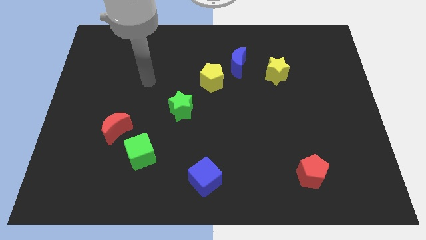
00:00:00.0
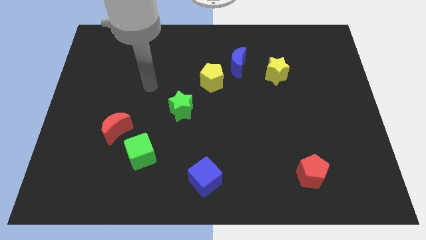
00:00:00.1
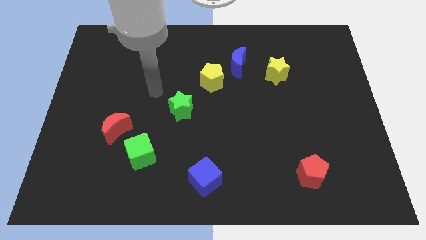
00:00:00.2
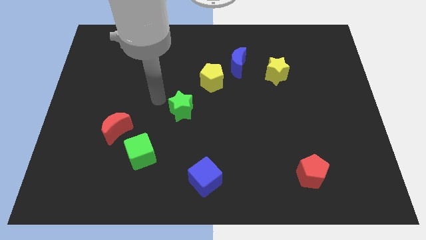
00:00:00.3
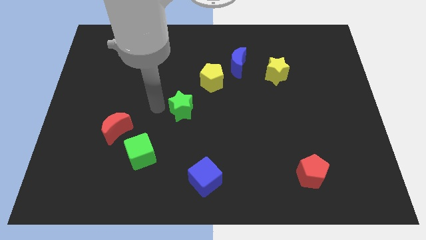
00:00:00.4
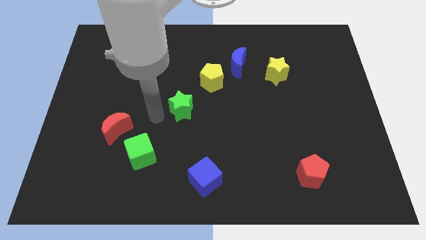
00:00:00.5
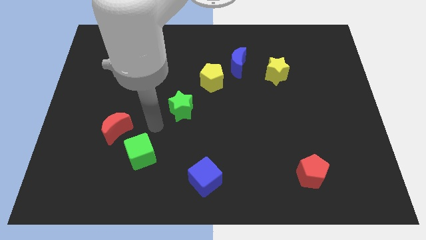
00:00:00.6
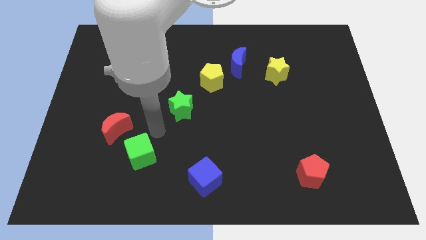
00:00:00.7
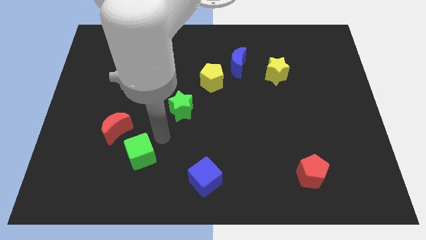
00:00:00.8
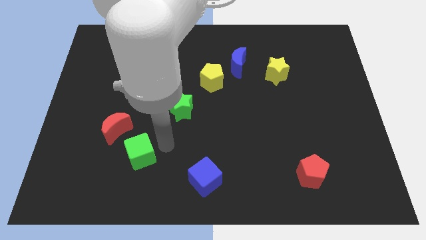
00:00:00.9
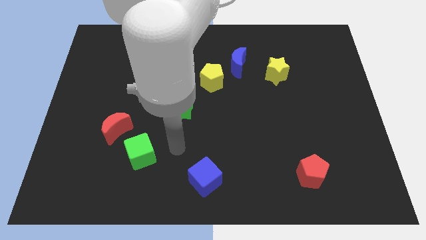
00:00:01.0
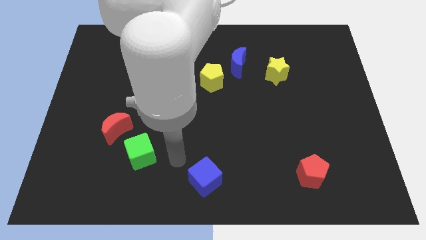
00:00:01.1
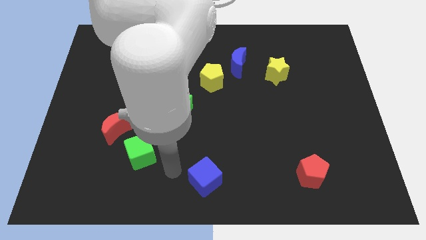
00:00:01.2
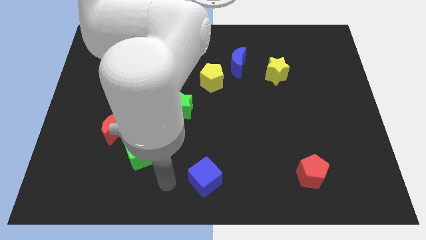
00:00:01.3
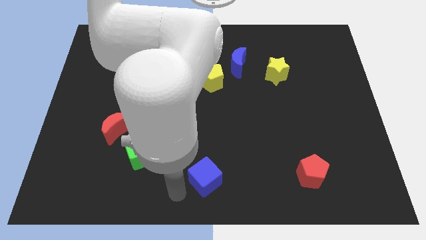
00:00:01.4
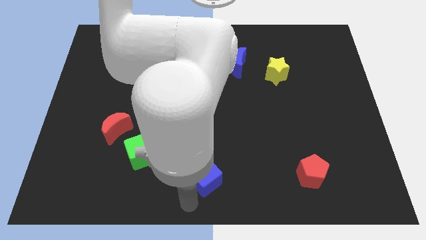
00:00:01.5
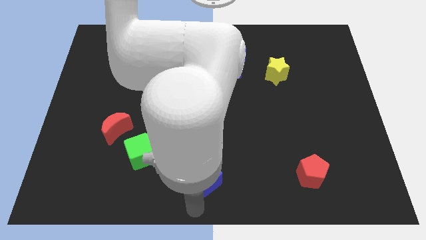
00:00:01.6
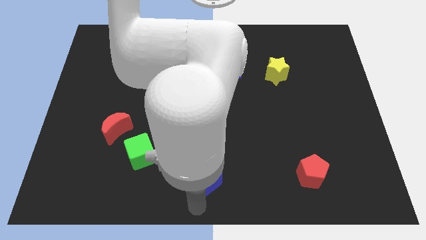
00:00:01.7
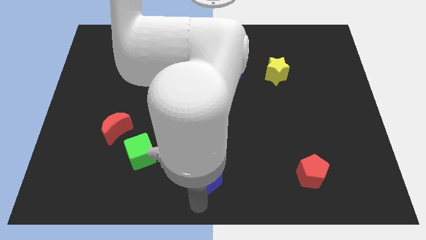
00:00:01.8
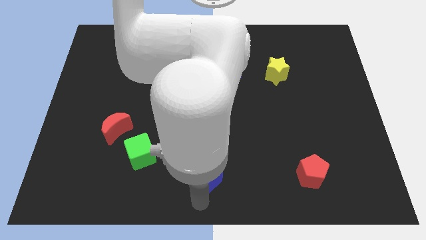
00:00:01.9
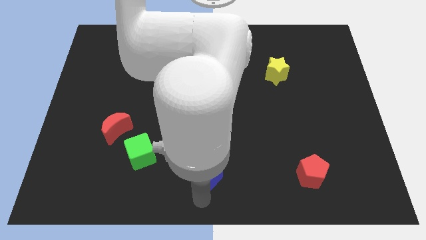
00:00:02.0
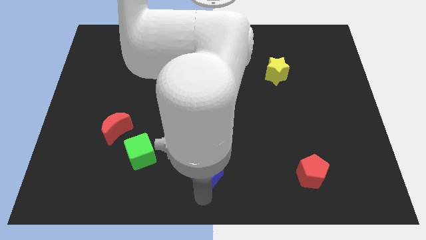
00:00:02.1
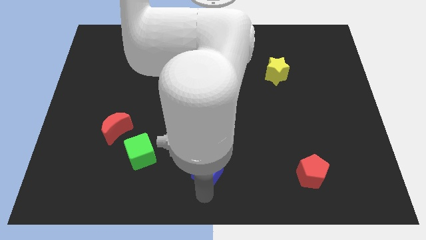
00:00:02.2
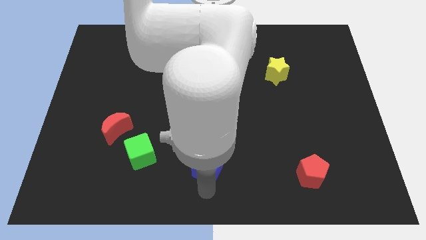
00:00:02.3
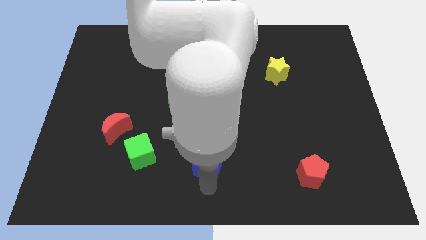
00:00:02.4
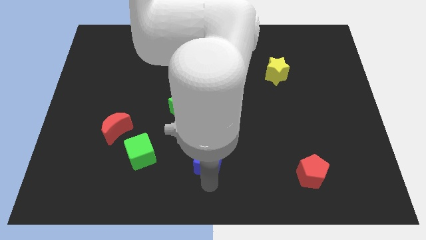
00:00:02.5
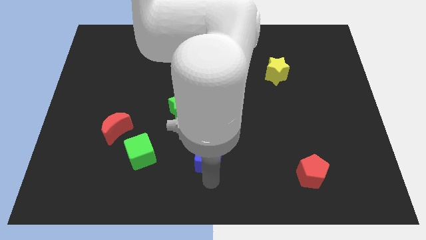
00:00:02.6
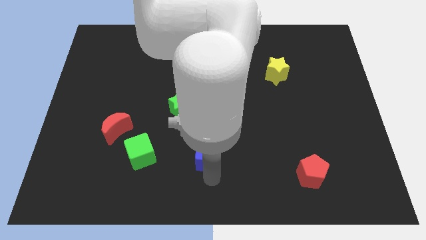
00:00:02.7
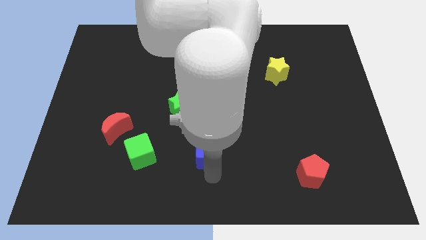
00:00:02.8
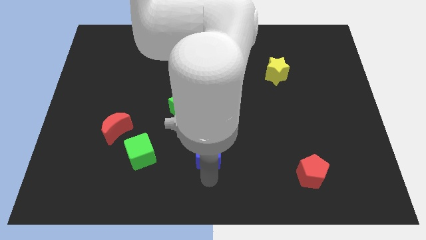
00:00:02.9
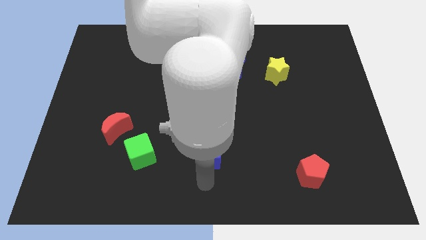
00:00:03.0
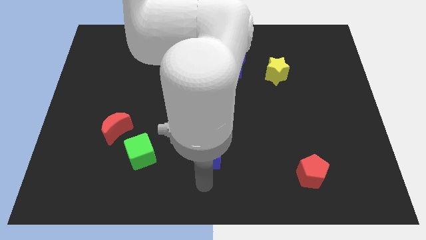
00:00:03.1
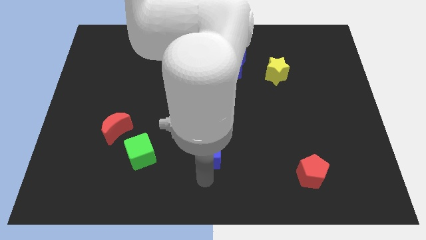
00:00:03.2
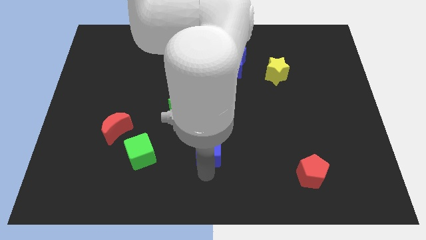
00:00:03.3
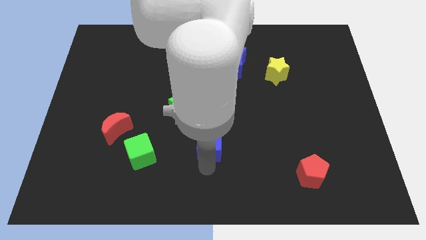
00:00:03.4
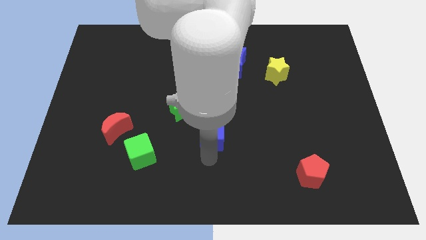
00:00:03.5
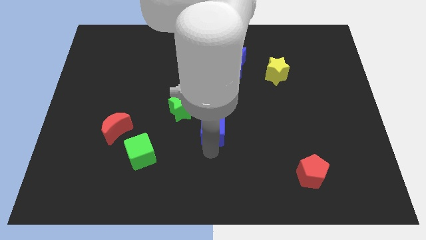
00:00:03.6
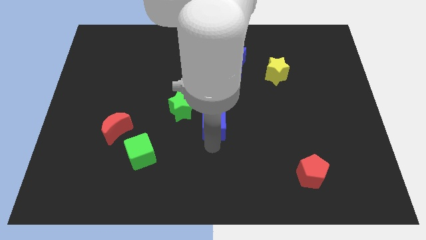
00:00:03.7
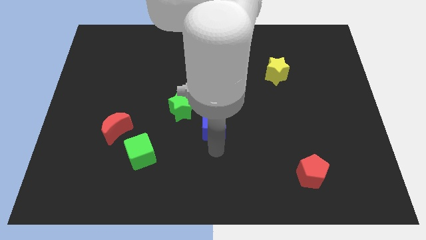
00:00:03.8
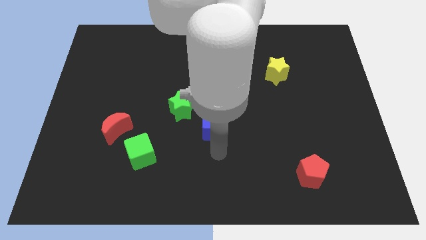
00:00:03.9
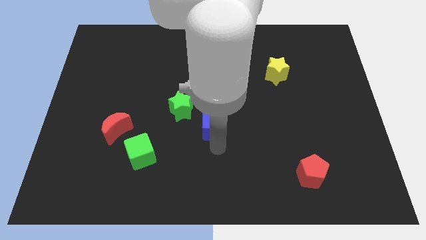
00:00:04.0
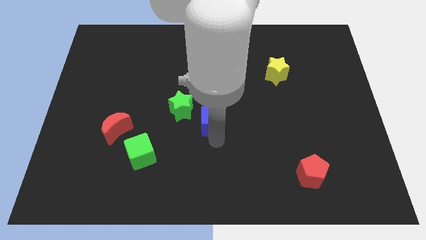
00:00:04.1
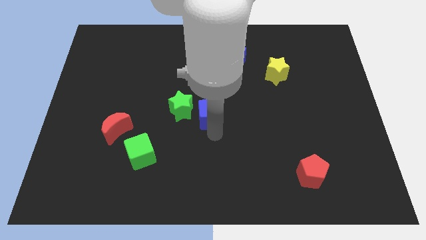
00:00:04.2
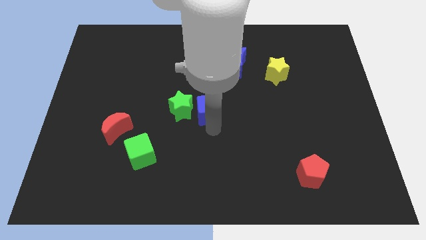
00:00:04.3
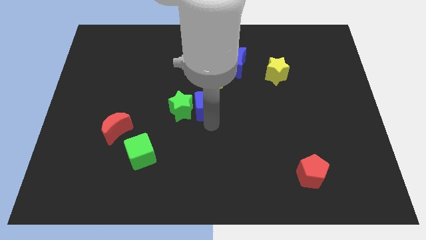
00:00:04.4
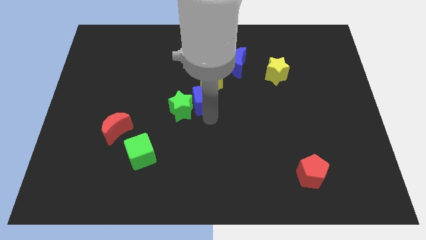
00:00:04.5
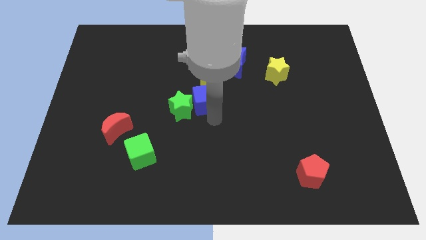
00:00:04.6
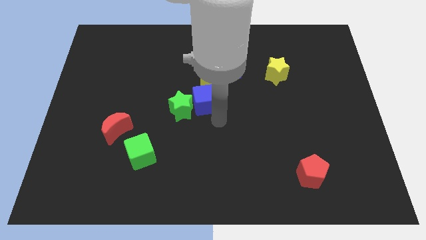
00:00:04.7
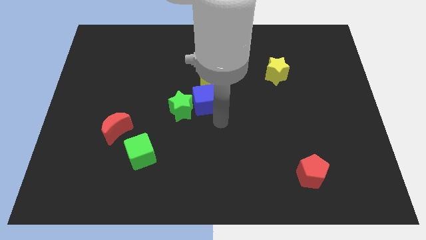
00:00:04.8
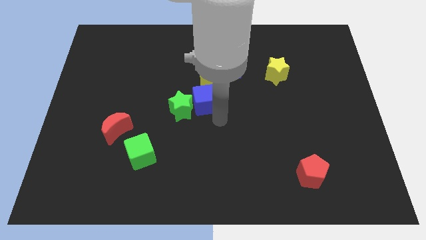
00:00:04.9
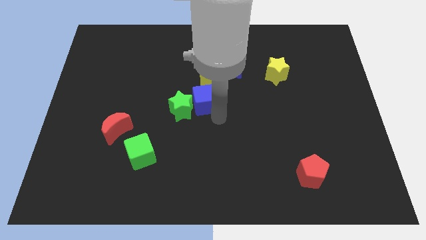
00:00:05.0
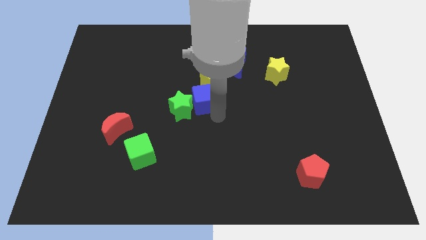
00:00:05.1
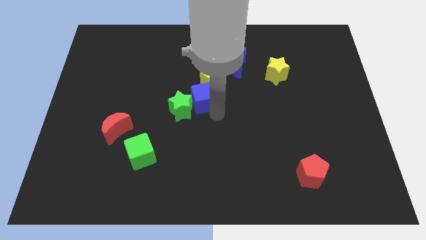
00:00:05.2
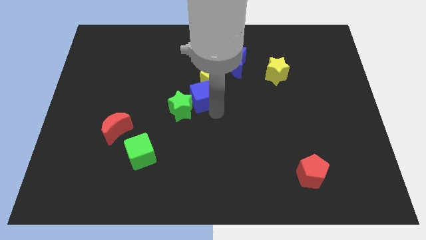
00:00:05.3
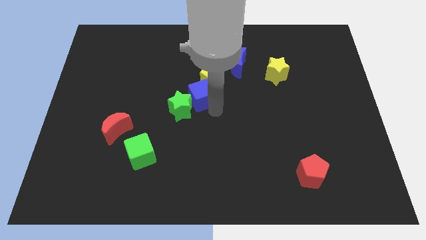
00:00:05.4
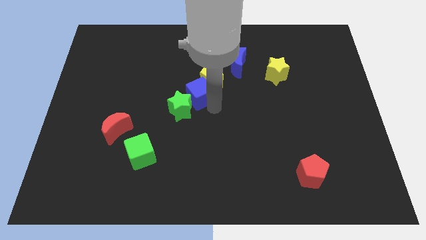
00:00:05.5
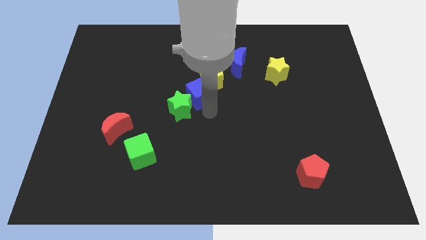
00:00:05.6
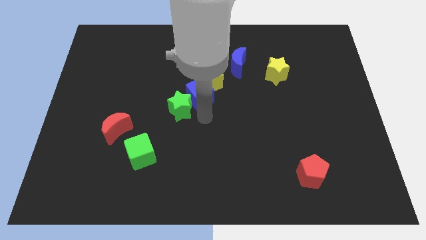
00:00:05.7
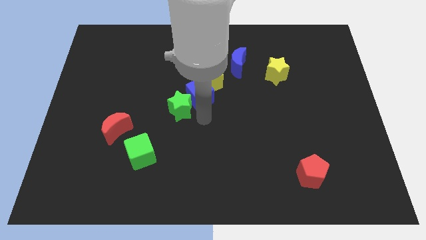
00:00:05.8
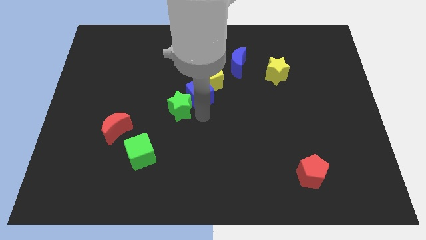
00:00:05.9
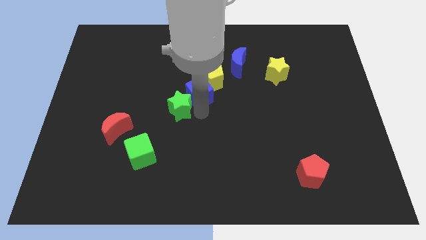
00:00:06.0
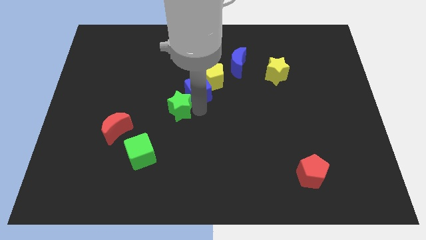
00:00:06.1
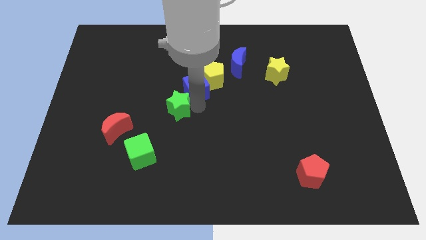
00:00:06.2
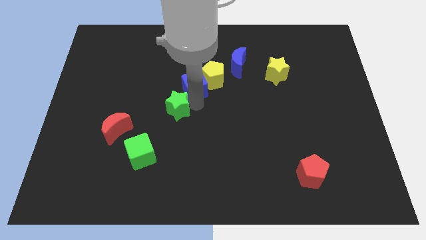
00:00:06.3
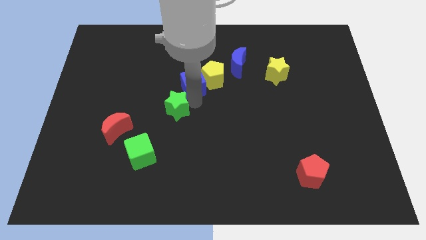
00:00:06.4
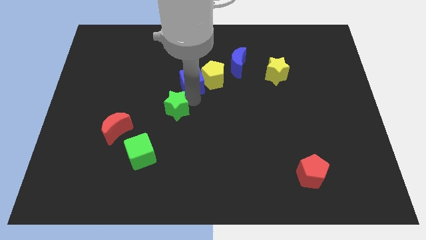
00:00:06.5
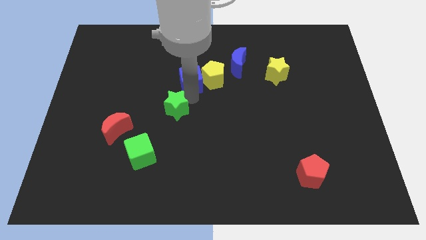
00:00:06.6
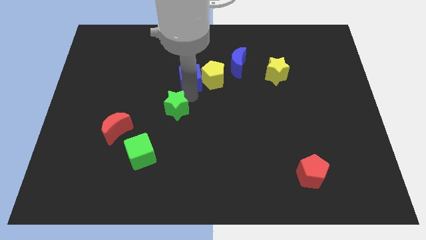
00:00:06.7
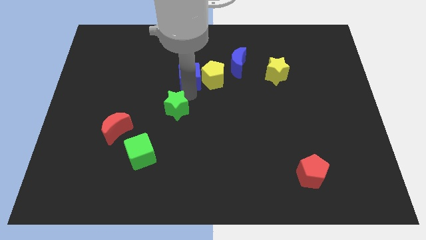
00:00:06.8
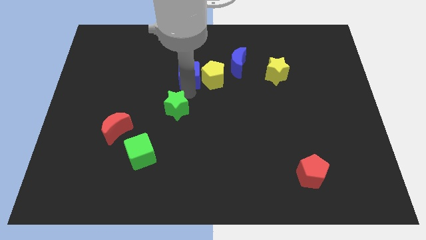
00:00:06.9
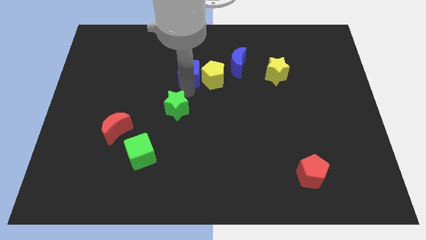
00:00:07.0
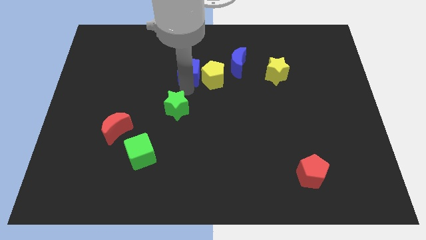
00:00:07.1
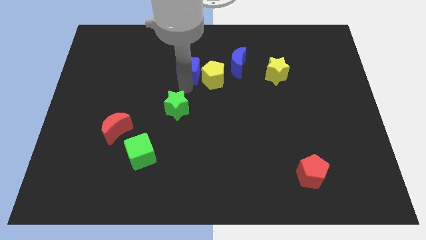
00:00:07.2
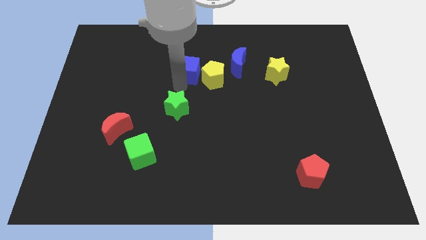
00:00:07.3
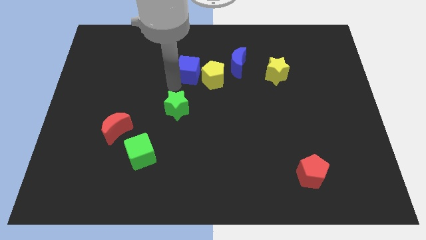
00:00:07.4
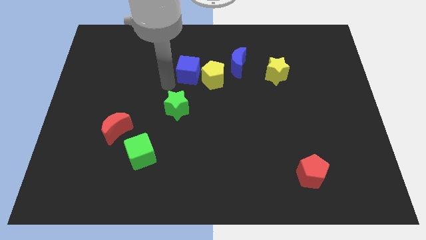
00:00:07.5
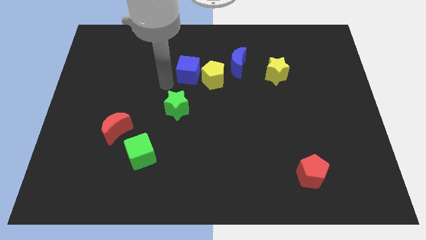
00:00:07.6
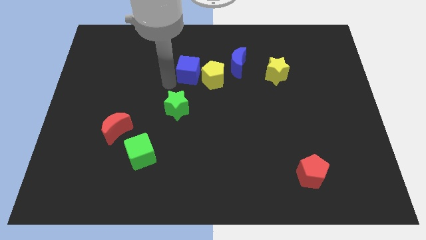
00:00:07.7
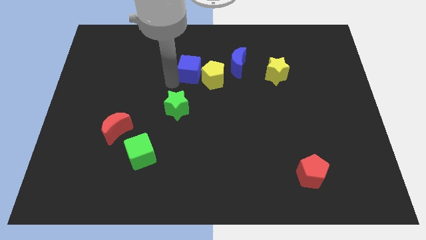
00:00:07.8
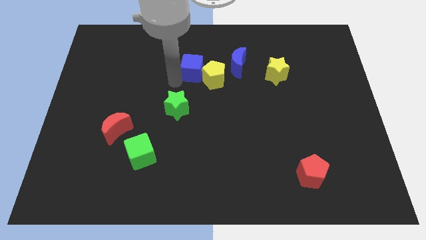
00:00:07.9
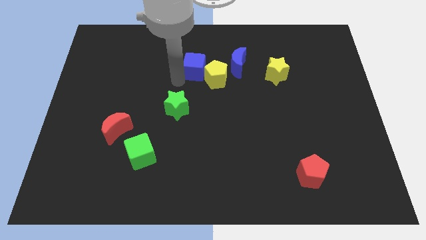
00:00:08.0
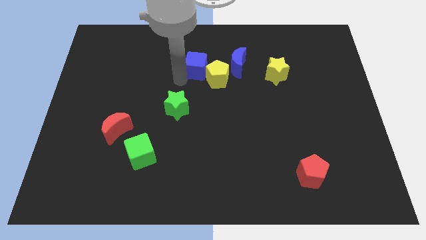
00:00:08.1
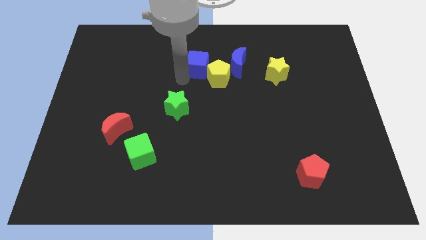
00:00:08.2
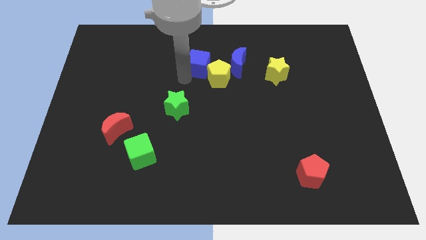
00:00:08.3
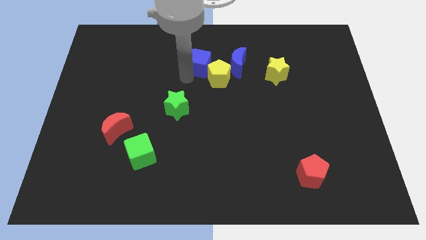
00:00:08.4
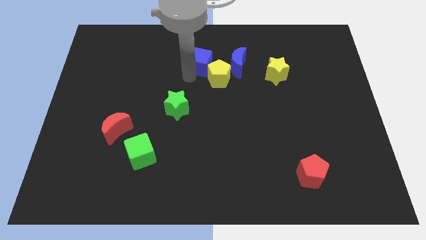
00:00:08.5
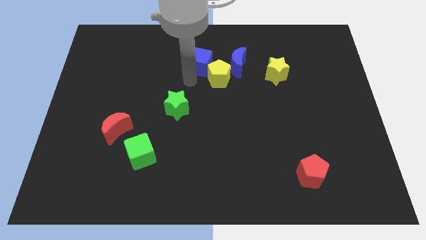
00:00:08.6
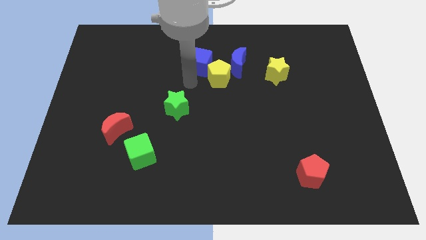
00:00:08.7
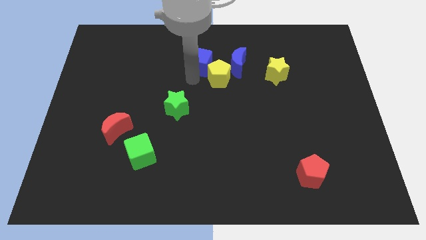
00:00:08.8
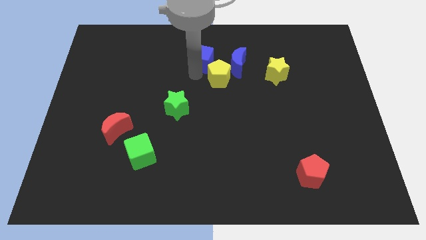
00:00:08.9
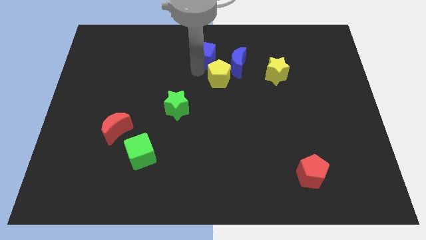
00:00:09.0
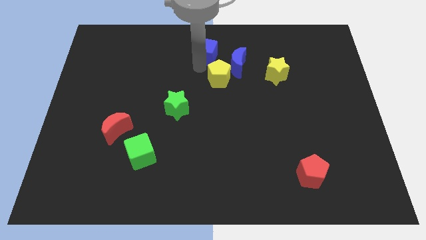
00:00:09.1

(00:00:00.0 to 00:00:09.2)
slide the blue cube to the top side
